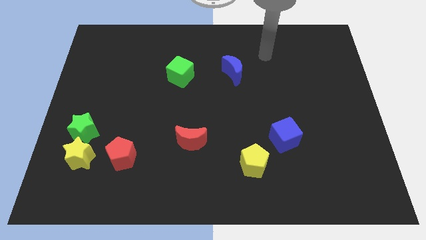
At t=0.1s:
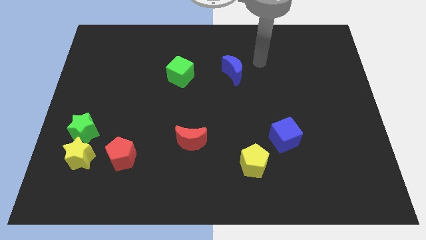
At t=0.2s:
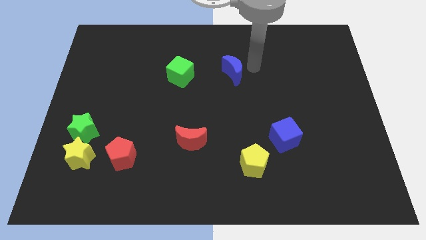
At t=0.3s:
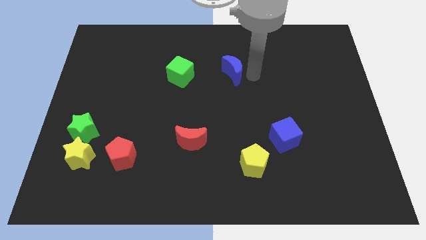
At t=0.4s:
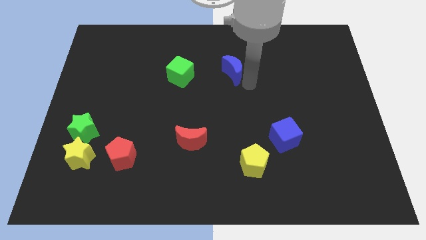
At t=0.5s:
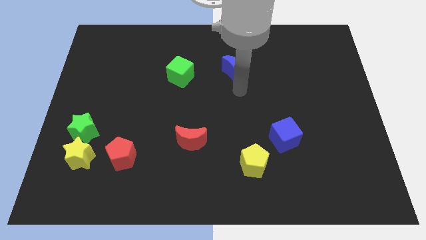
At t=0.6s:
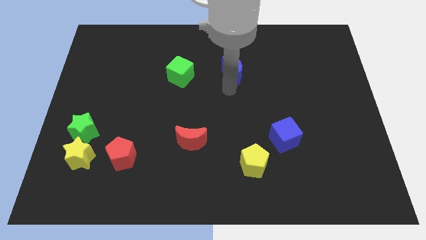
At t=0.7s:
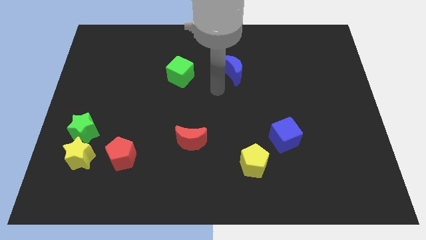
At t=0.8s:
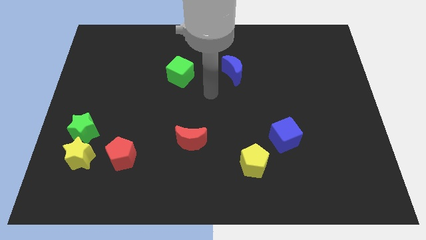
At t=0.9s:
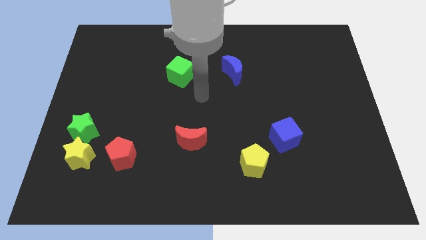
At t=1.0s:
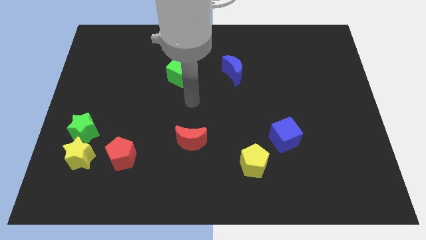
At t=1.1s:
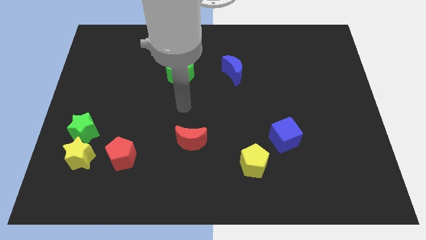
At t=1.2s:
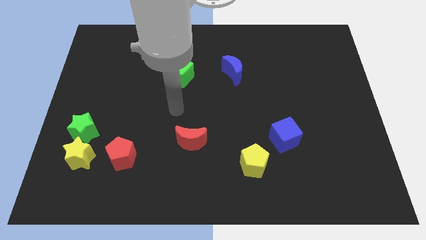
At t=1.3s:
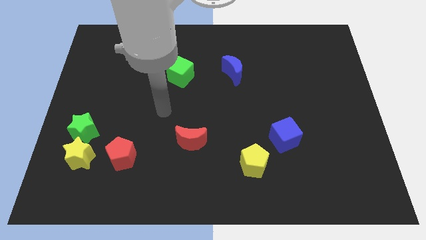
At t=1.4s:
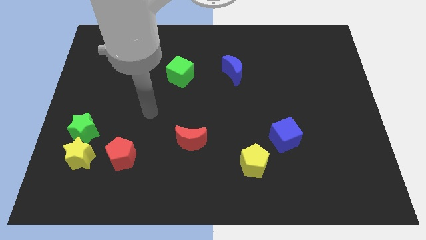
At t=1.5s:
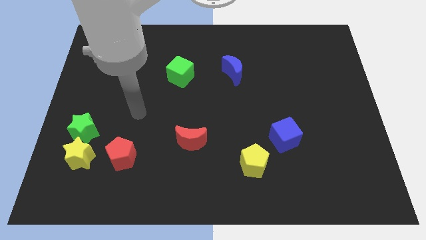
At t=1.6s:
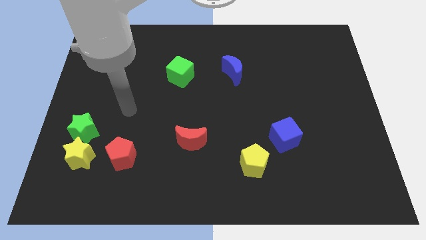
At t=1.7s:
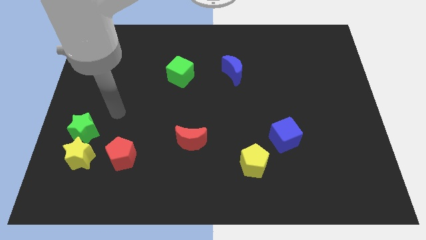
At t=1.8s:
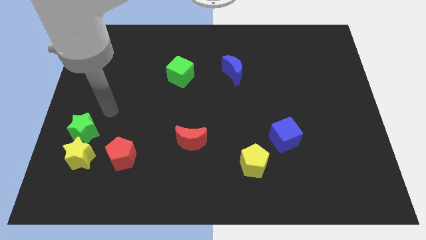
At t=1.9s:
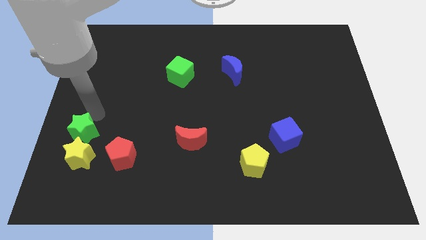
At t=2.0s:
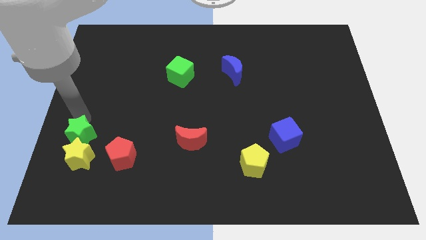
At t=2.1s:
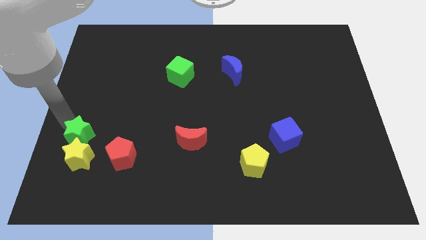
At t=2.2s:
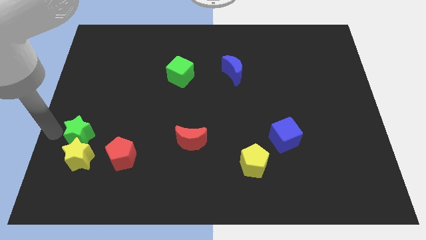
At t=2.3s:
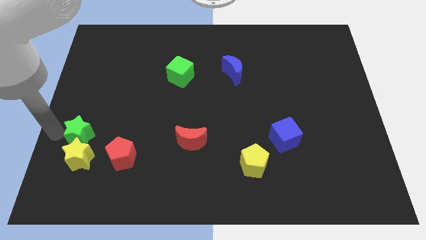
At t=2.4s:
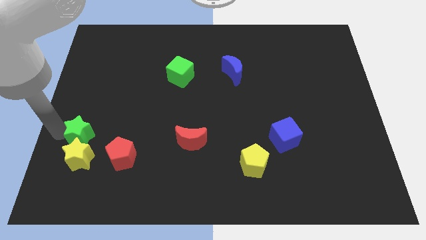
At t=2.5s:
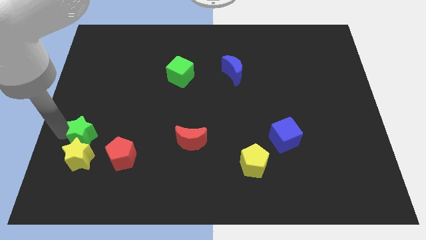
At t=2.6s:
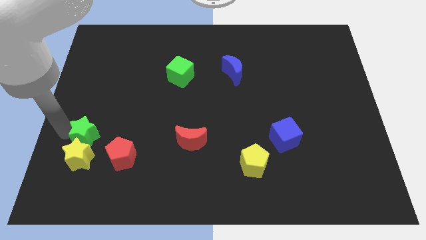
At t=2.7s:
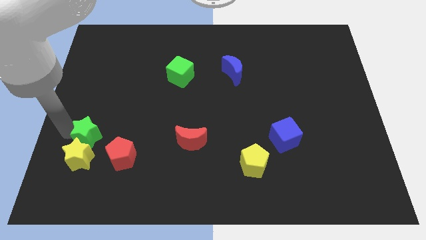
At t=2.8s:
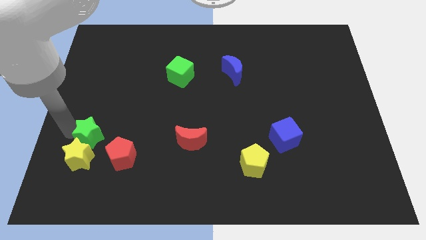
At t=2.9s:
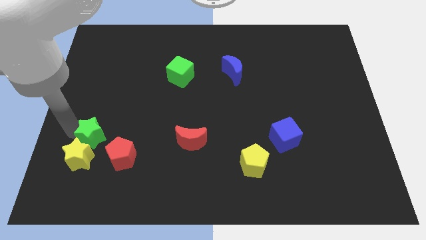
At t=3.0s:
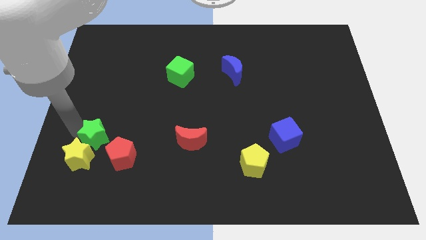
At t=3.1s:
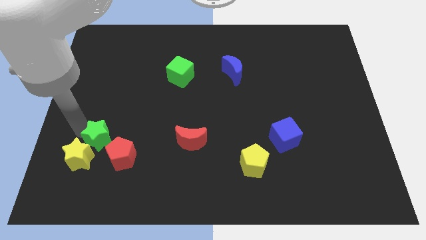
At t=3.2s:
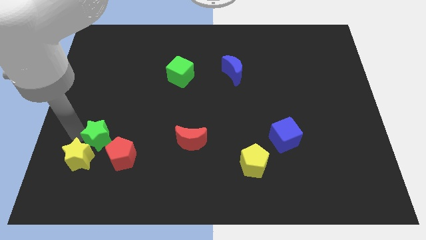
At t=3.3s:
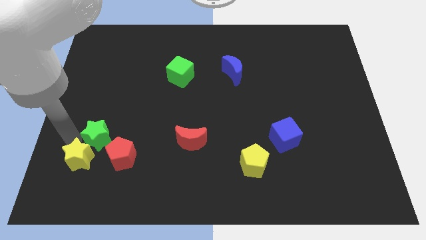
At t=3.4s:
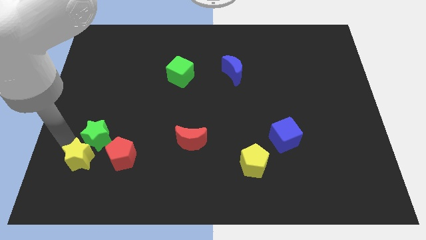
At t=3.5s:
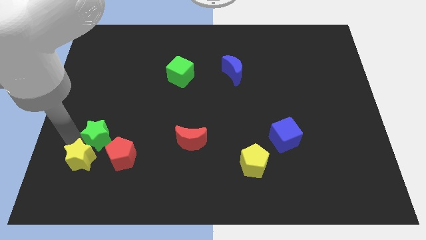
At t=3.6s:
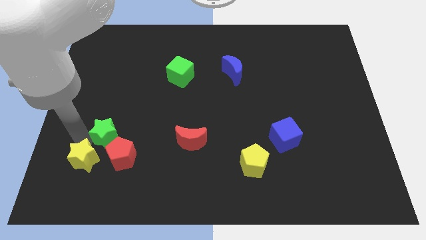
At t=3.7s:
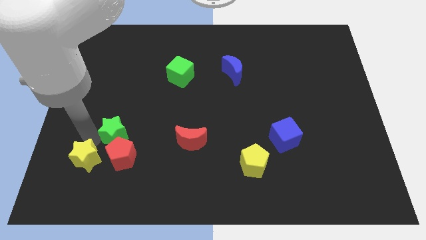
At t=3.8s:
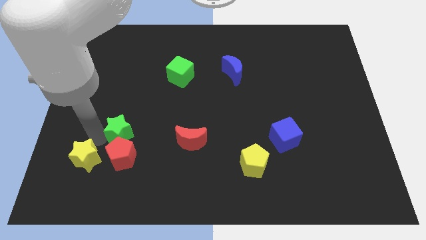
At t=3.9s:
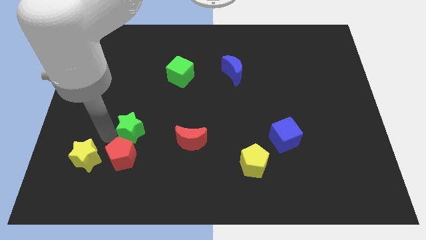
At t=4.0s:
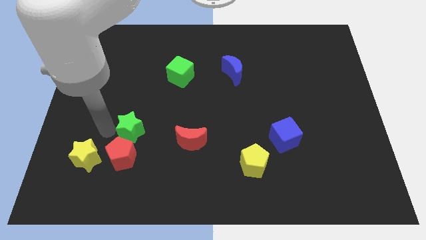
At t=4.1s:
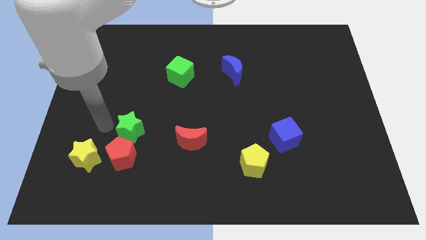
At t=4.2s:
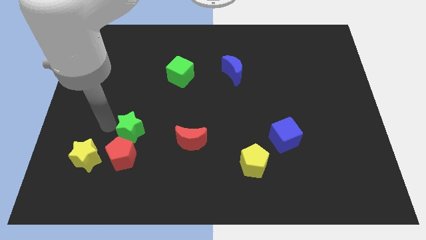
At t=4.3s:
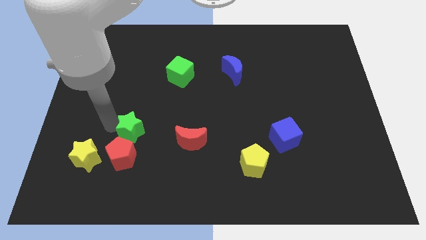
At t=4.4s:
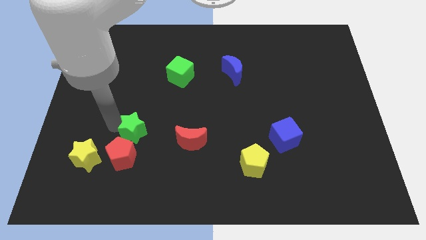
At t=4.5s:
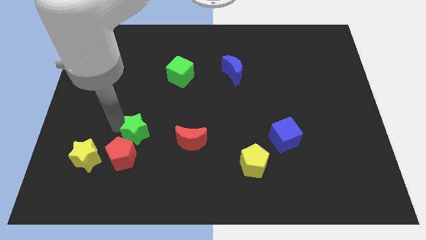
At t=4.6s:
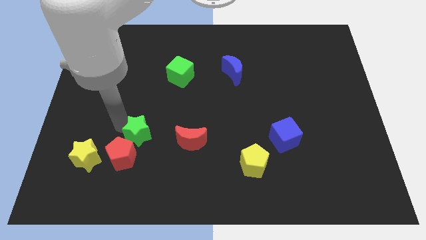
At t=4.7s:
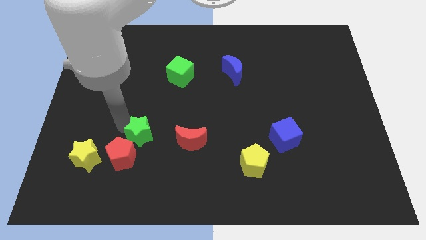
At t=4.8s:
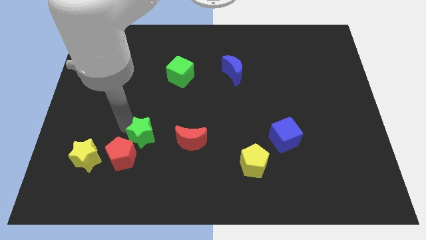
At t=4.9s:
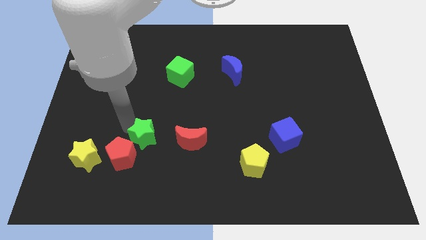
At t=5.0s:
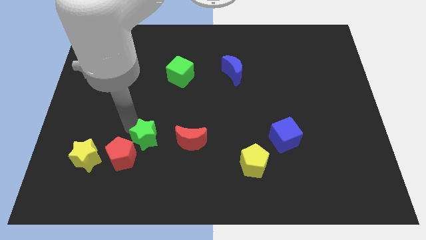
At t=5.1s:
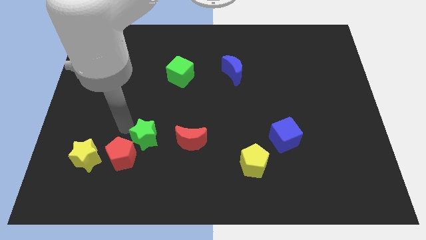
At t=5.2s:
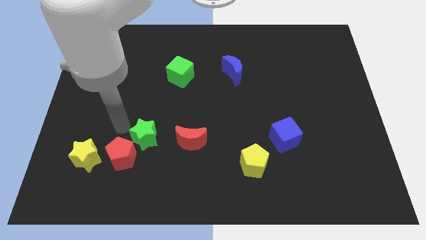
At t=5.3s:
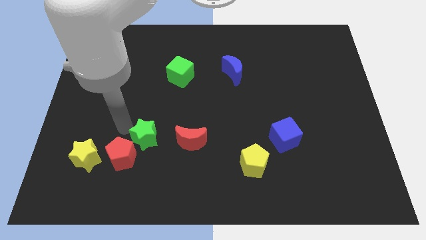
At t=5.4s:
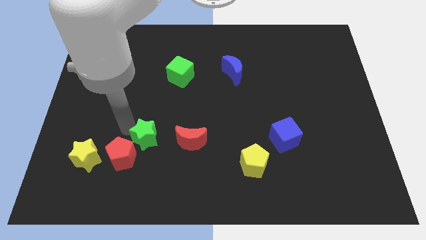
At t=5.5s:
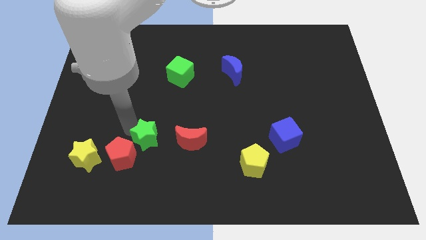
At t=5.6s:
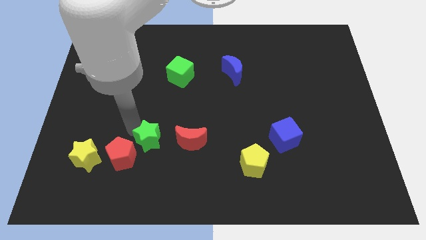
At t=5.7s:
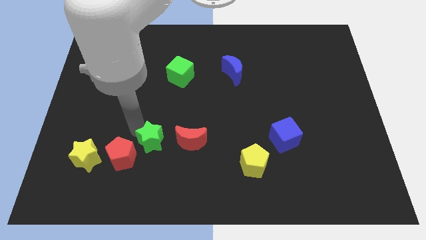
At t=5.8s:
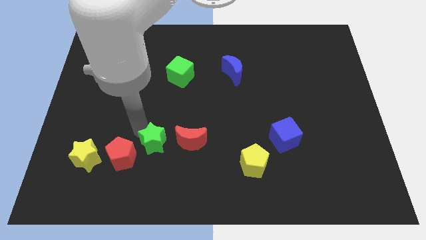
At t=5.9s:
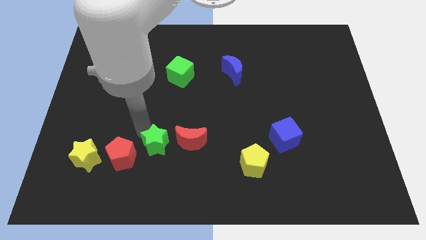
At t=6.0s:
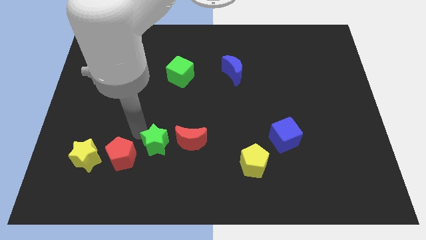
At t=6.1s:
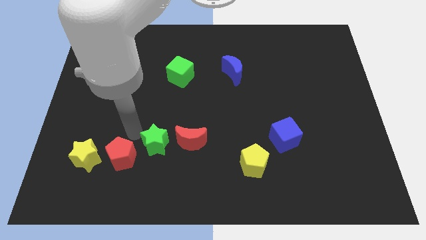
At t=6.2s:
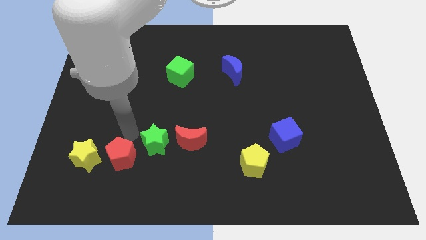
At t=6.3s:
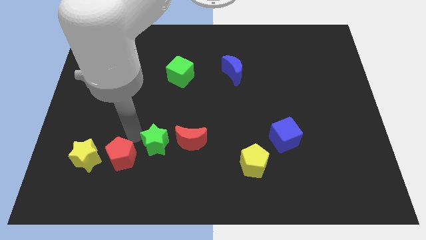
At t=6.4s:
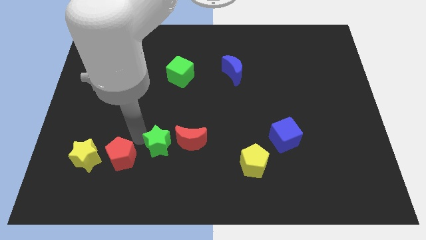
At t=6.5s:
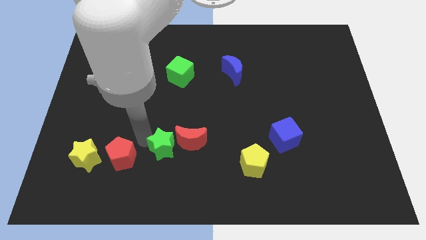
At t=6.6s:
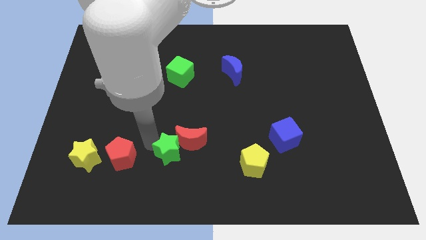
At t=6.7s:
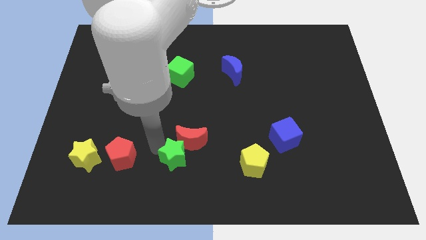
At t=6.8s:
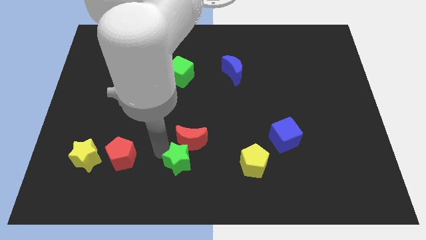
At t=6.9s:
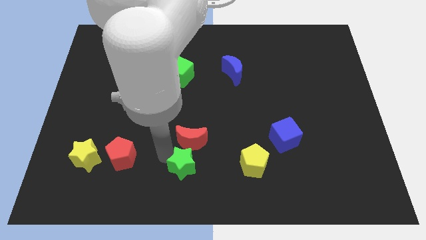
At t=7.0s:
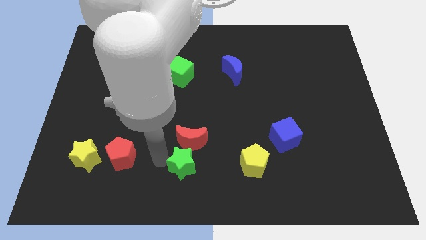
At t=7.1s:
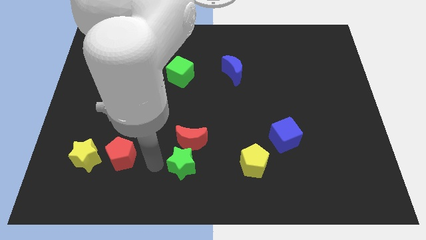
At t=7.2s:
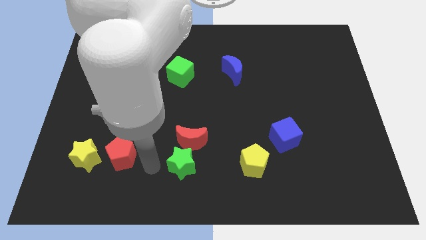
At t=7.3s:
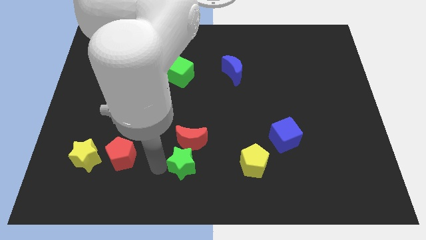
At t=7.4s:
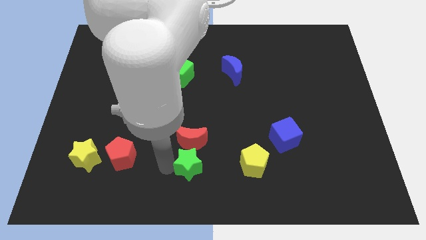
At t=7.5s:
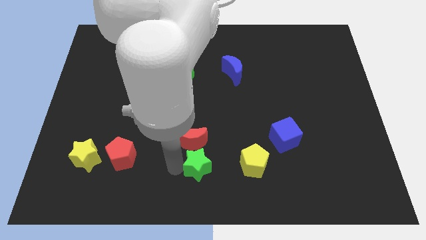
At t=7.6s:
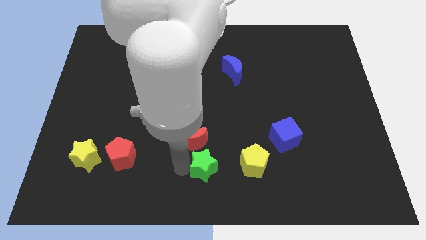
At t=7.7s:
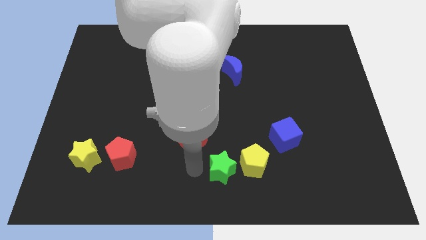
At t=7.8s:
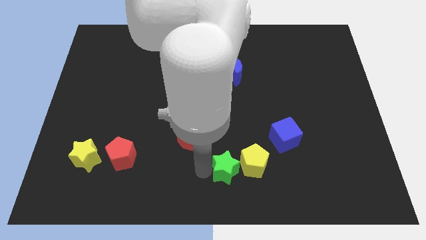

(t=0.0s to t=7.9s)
slide the green star towards the yellow pentagon
